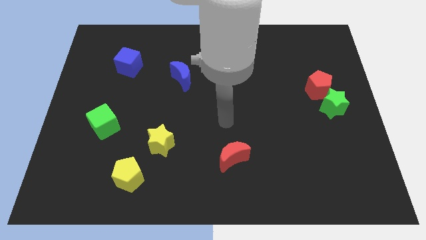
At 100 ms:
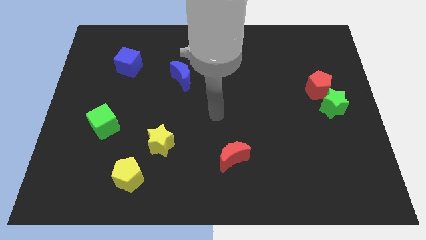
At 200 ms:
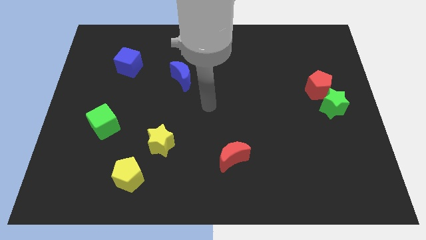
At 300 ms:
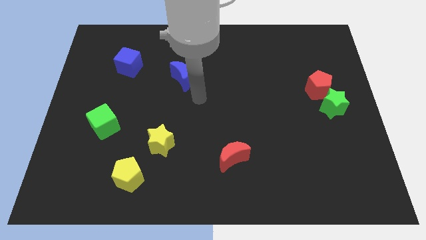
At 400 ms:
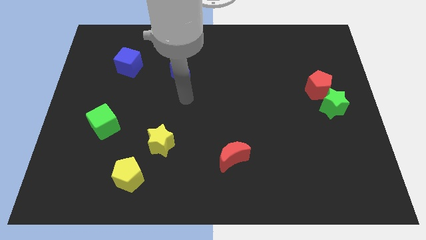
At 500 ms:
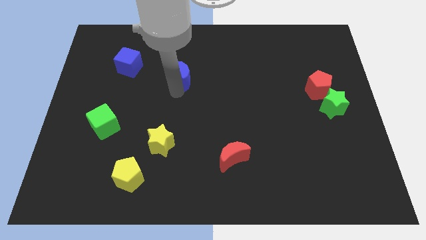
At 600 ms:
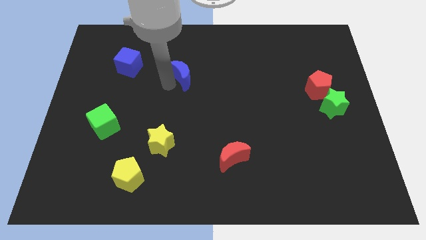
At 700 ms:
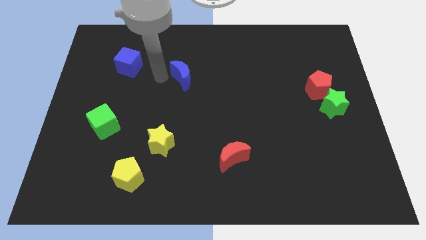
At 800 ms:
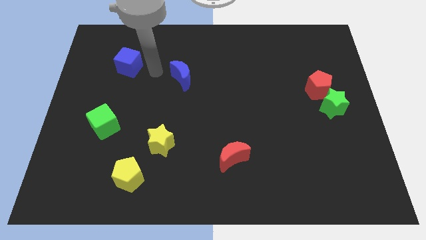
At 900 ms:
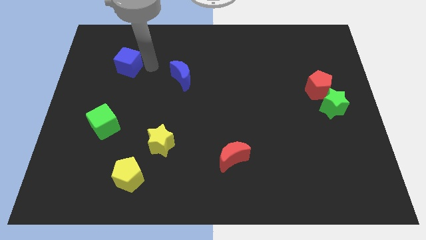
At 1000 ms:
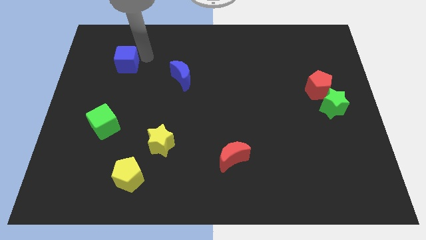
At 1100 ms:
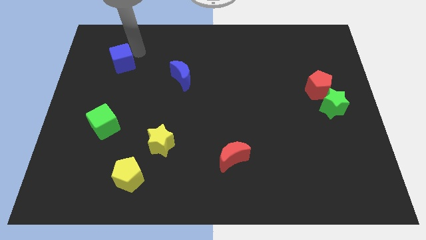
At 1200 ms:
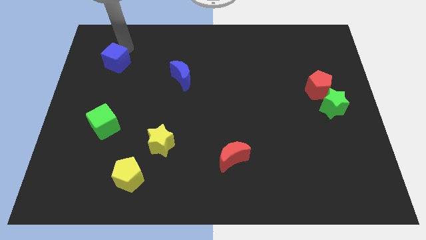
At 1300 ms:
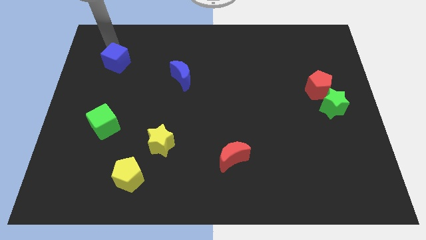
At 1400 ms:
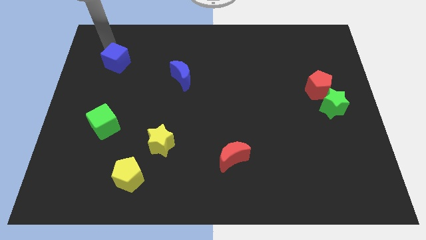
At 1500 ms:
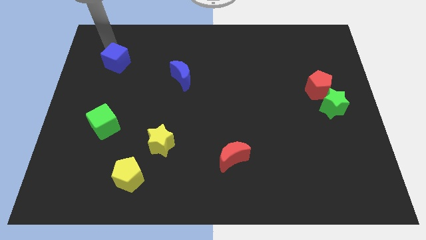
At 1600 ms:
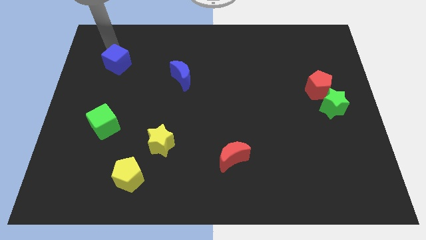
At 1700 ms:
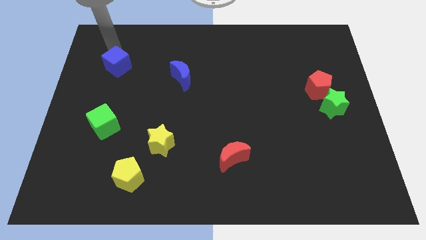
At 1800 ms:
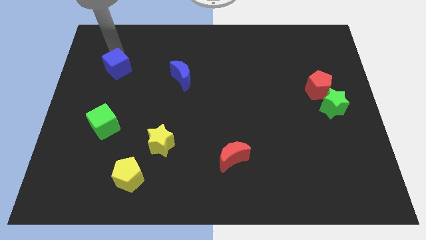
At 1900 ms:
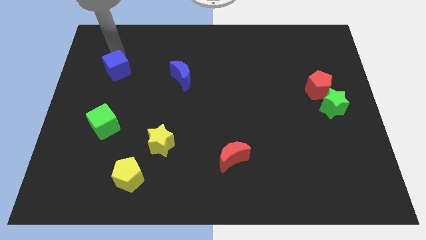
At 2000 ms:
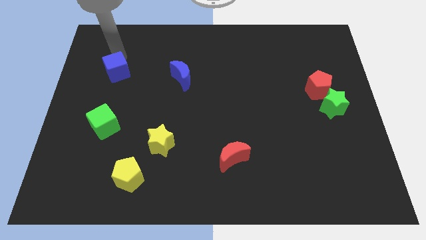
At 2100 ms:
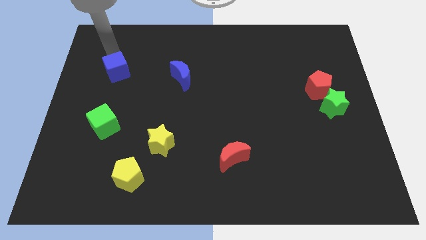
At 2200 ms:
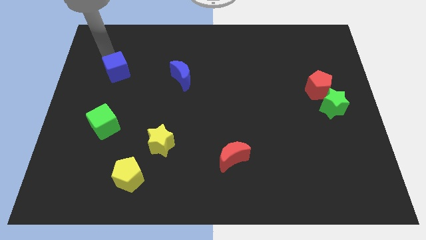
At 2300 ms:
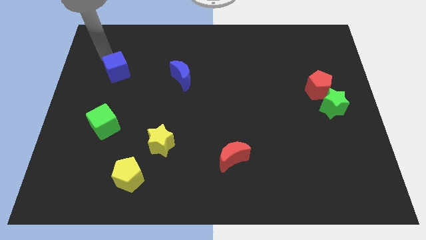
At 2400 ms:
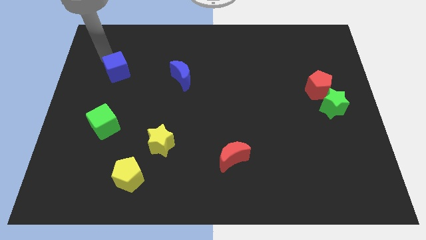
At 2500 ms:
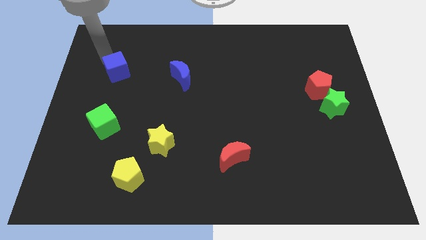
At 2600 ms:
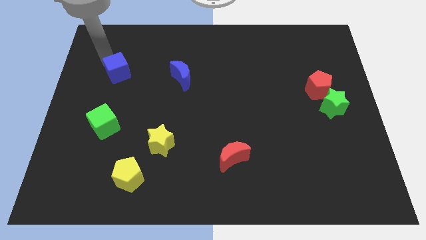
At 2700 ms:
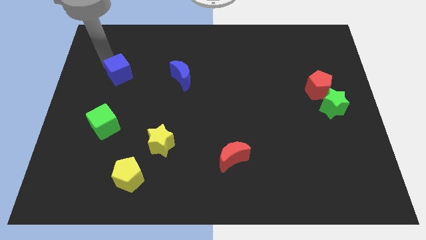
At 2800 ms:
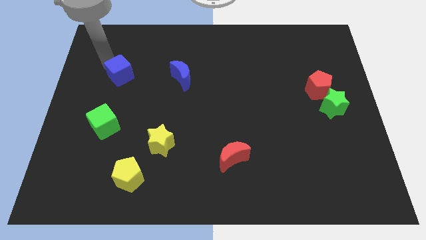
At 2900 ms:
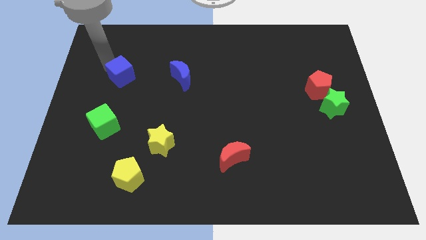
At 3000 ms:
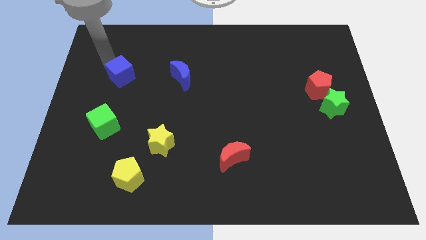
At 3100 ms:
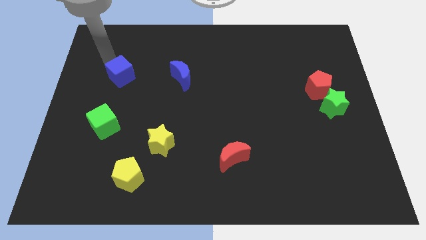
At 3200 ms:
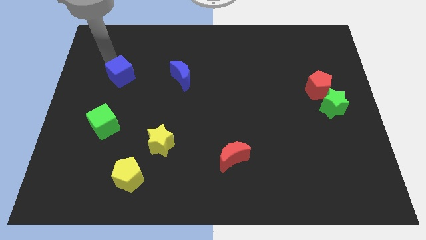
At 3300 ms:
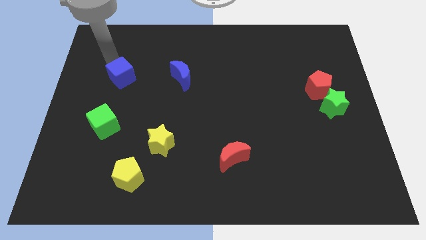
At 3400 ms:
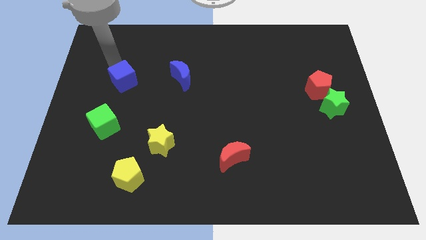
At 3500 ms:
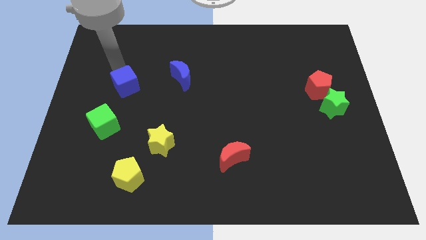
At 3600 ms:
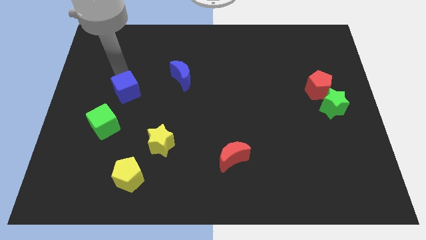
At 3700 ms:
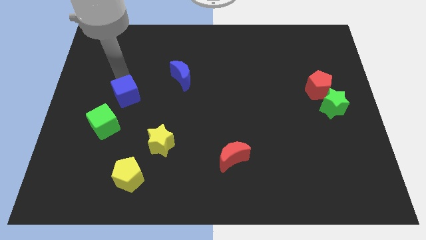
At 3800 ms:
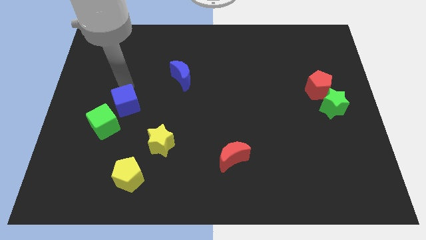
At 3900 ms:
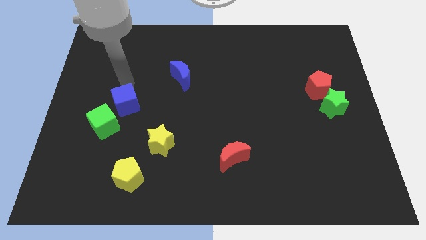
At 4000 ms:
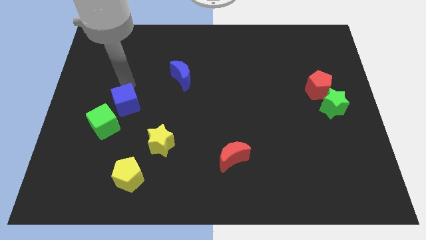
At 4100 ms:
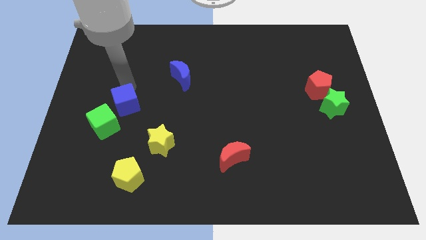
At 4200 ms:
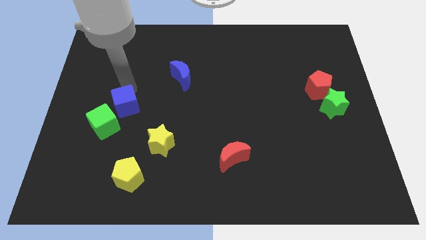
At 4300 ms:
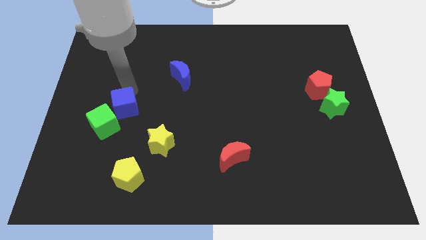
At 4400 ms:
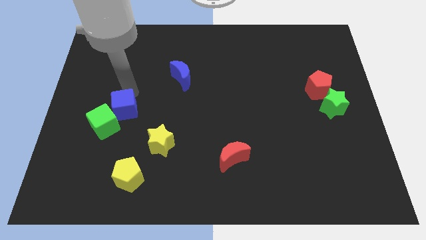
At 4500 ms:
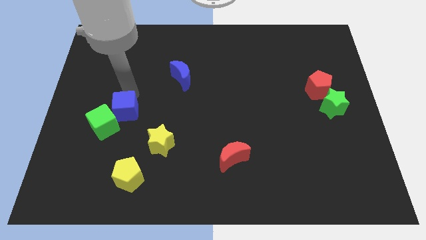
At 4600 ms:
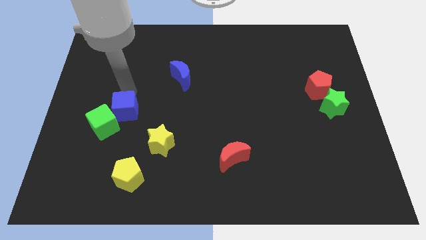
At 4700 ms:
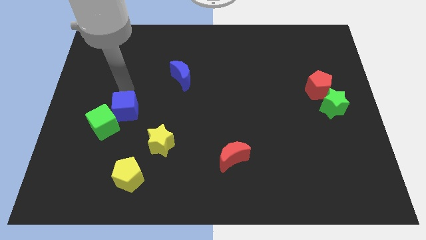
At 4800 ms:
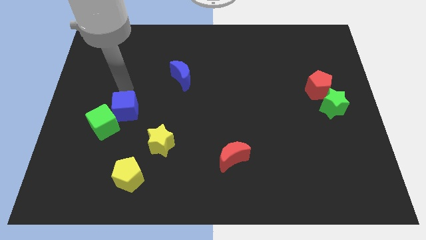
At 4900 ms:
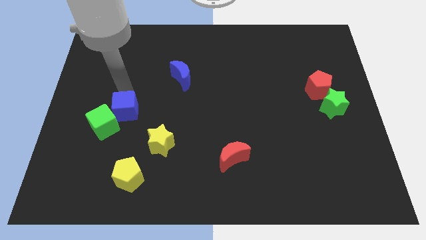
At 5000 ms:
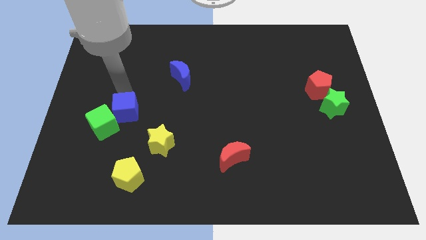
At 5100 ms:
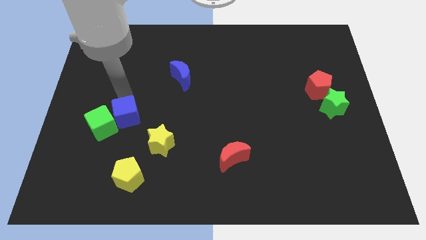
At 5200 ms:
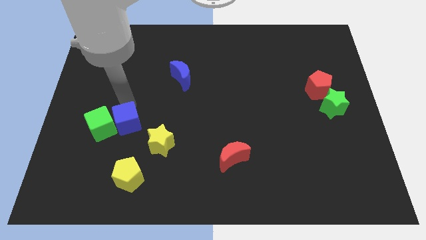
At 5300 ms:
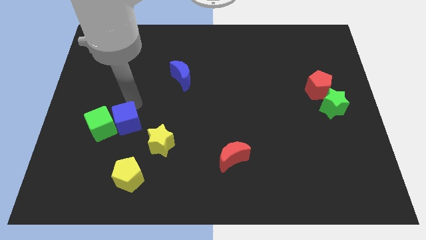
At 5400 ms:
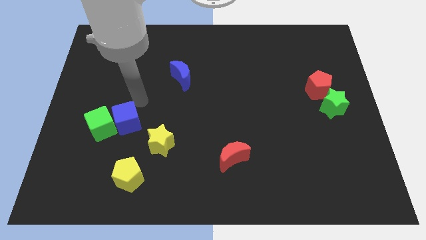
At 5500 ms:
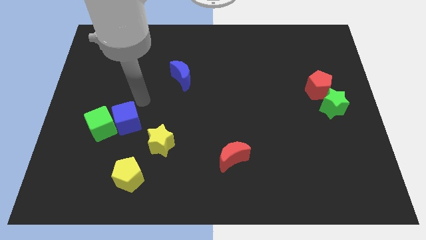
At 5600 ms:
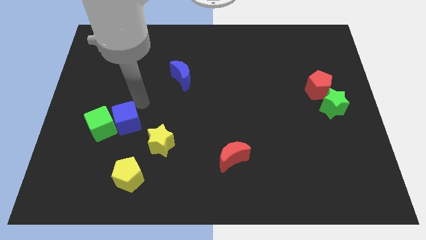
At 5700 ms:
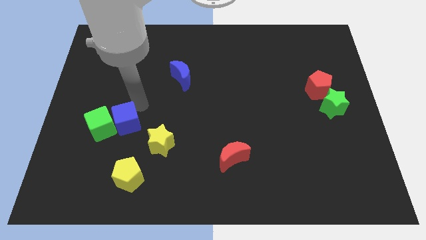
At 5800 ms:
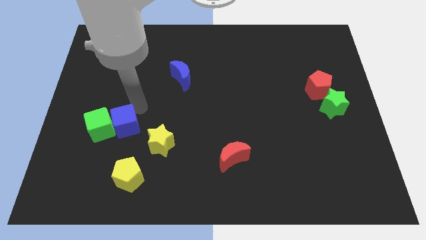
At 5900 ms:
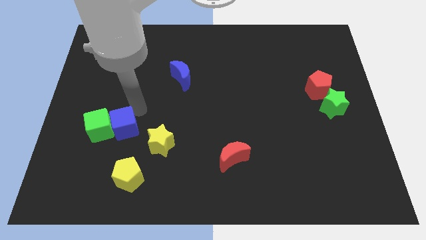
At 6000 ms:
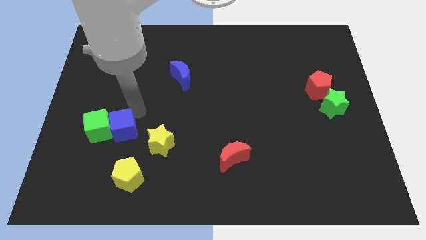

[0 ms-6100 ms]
slide the blue cube downwards

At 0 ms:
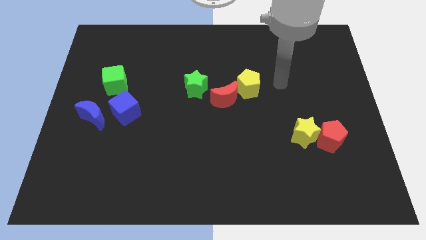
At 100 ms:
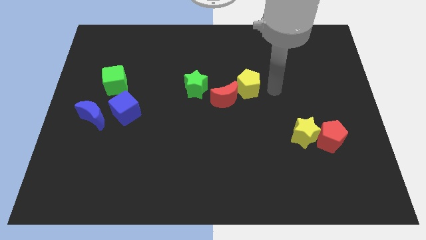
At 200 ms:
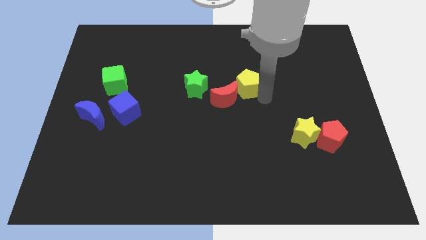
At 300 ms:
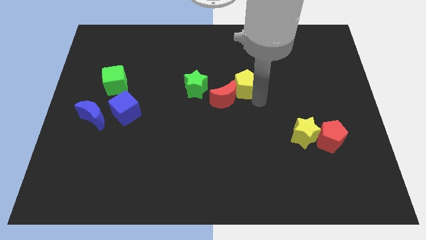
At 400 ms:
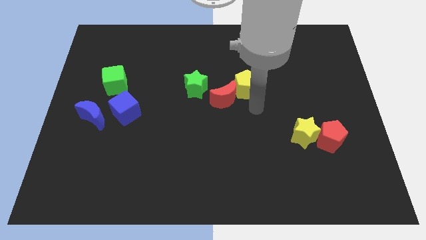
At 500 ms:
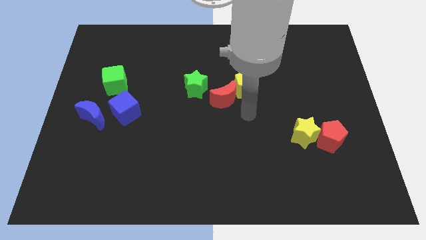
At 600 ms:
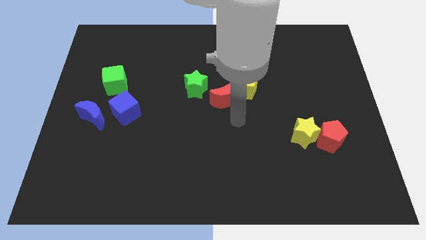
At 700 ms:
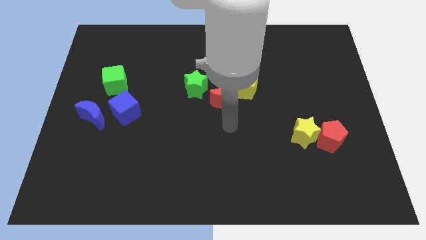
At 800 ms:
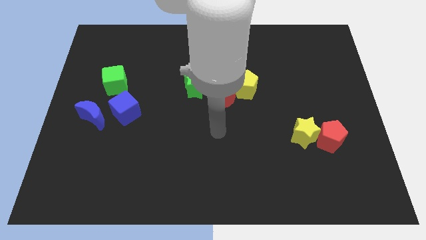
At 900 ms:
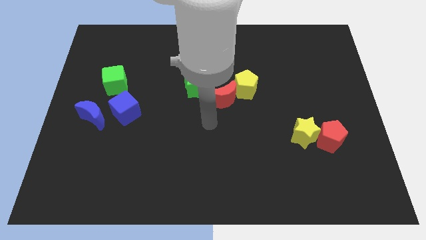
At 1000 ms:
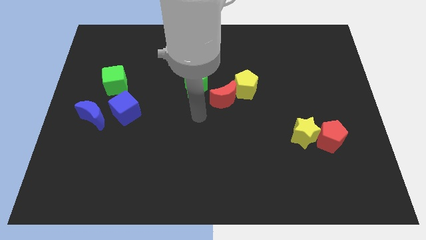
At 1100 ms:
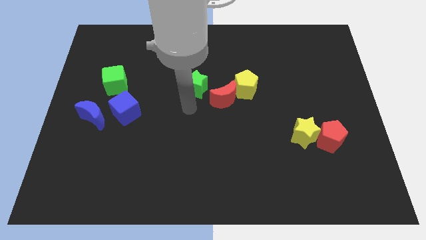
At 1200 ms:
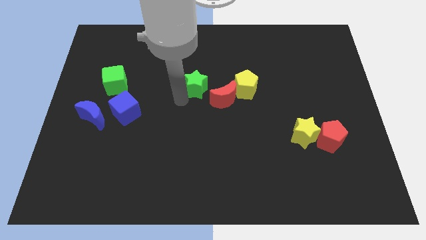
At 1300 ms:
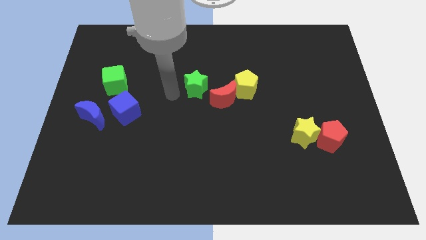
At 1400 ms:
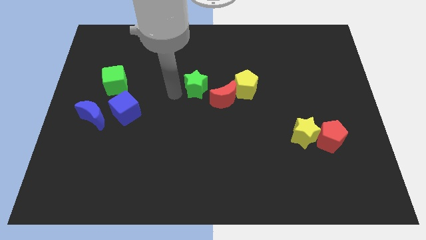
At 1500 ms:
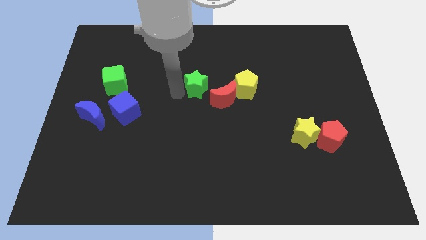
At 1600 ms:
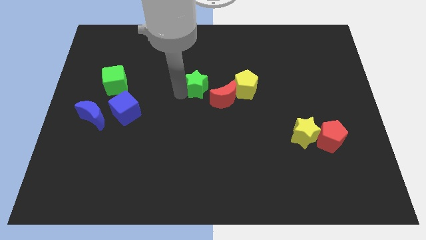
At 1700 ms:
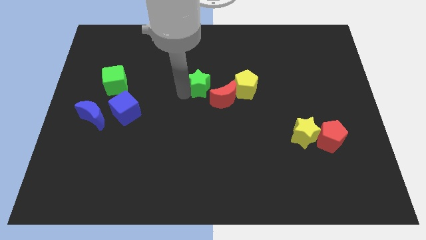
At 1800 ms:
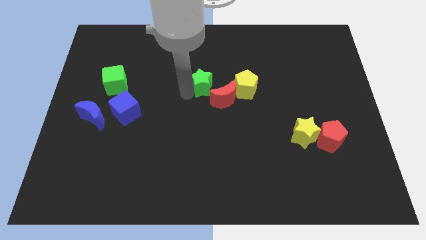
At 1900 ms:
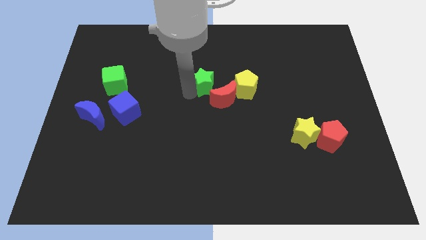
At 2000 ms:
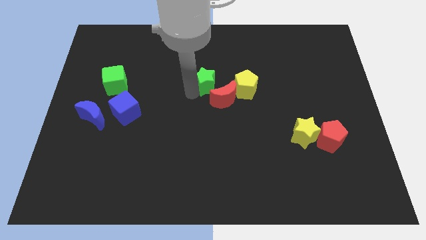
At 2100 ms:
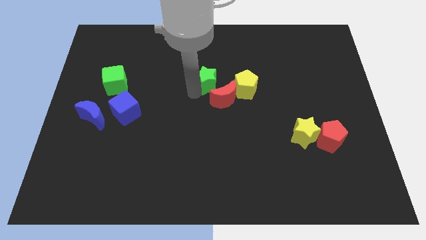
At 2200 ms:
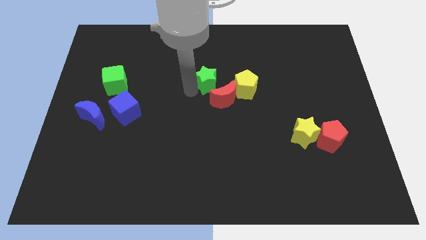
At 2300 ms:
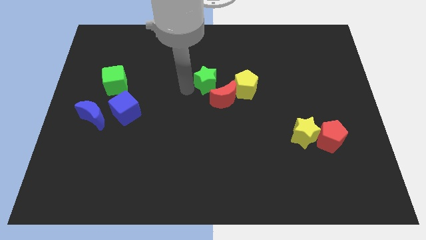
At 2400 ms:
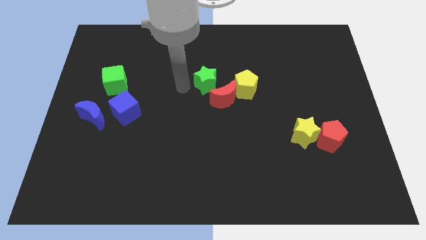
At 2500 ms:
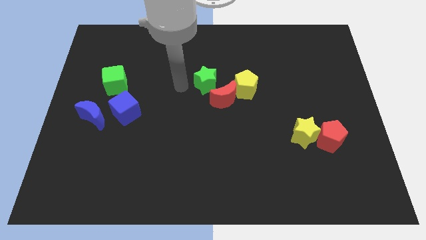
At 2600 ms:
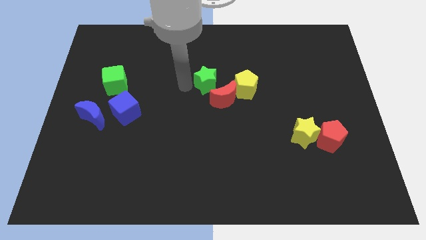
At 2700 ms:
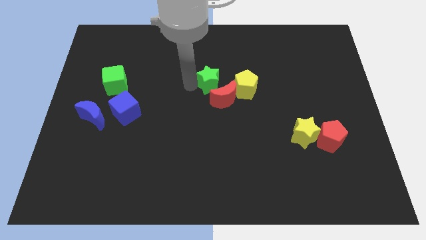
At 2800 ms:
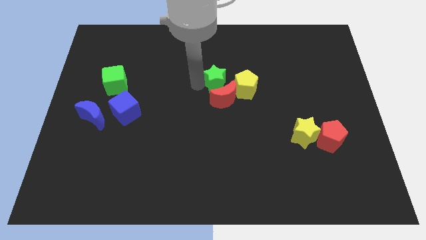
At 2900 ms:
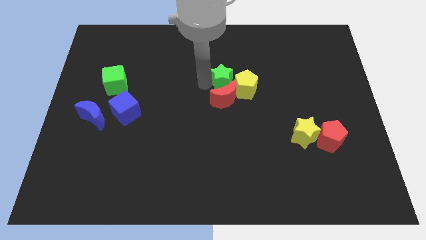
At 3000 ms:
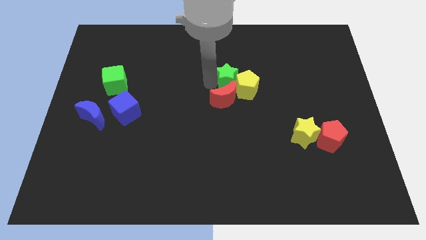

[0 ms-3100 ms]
slide the green star a bit to the right
